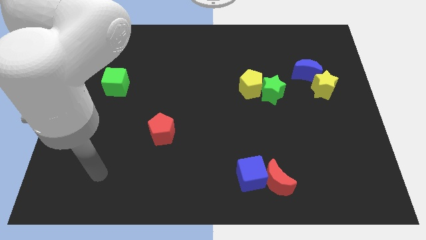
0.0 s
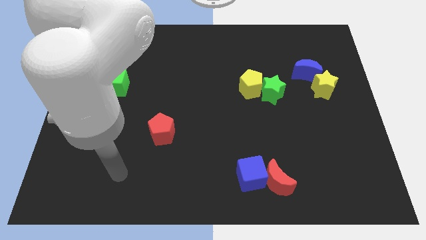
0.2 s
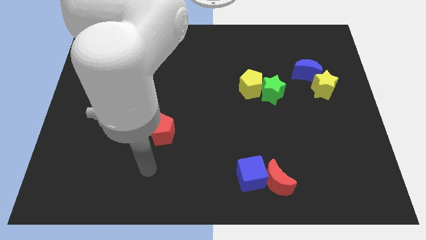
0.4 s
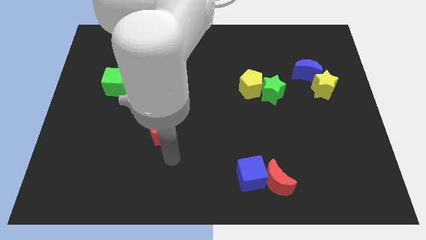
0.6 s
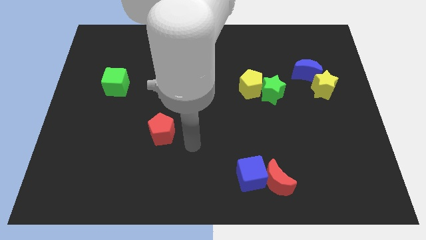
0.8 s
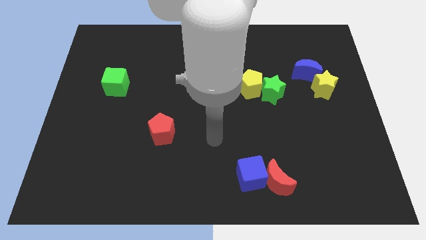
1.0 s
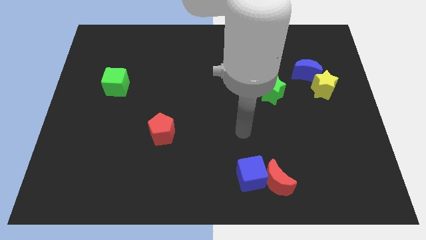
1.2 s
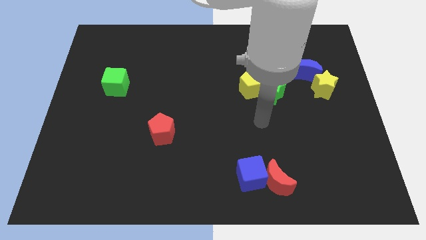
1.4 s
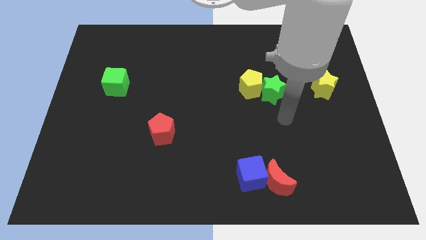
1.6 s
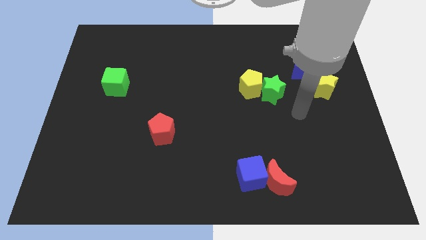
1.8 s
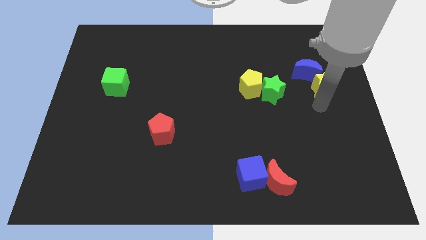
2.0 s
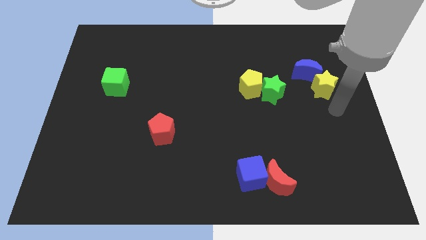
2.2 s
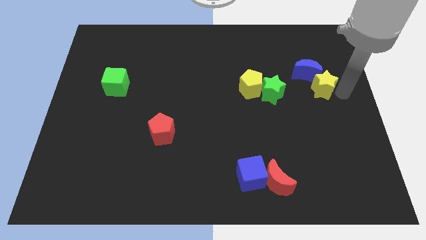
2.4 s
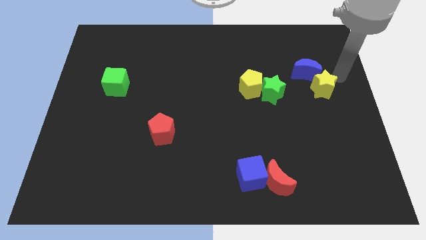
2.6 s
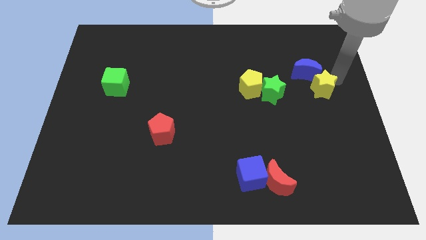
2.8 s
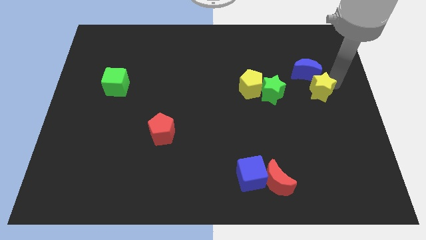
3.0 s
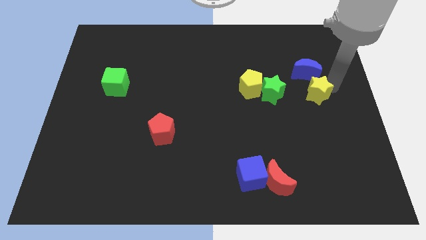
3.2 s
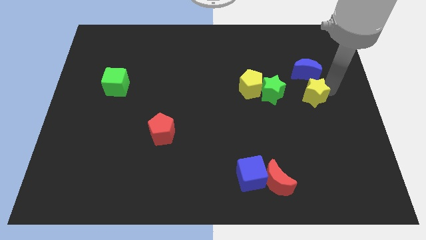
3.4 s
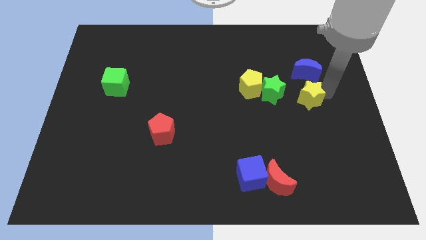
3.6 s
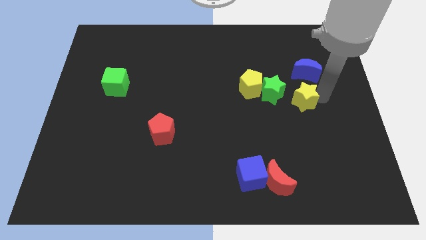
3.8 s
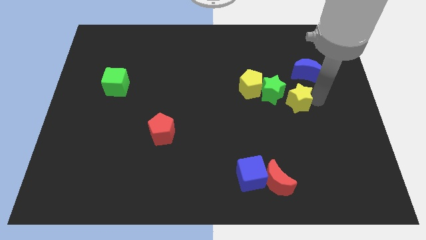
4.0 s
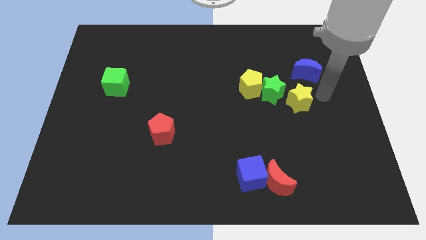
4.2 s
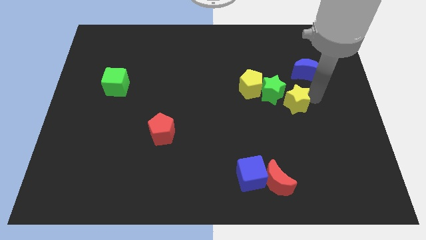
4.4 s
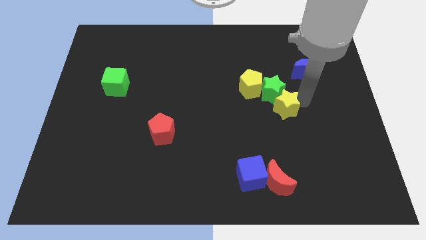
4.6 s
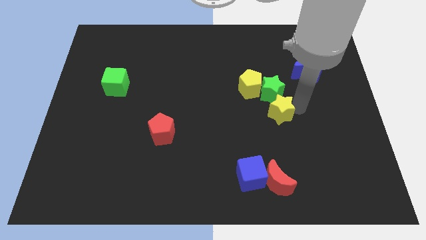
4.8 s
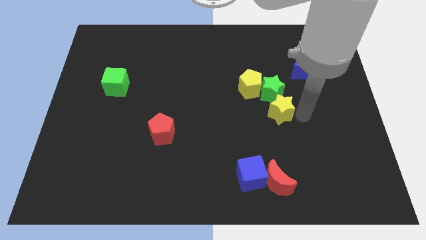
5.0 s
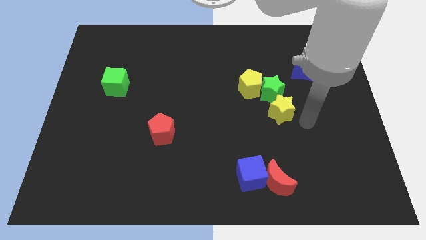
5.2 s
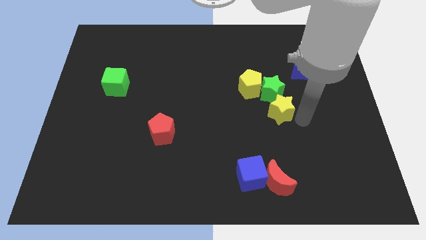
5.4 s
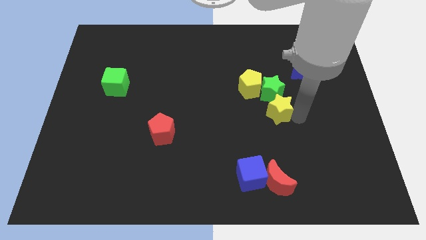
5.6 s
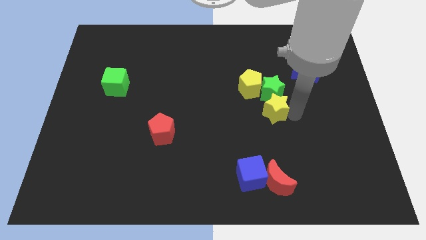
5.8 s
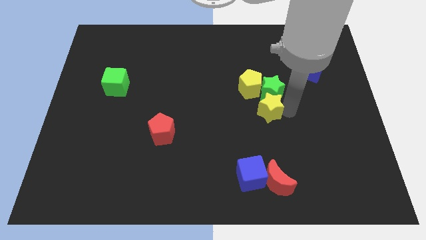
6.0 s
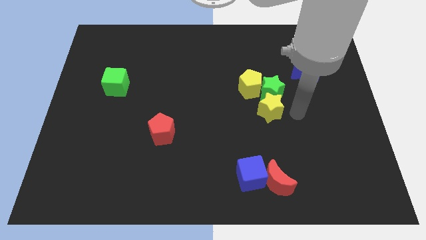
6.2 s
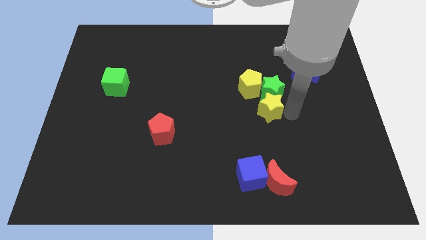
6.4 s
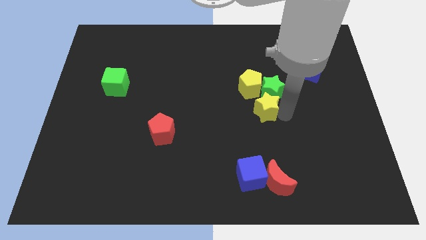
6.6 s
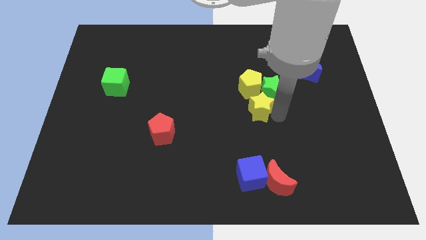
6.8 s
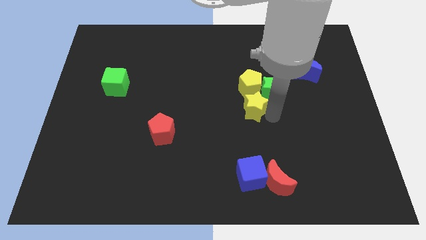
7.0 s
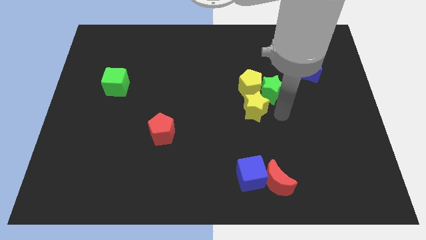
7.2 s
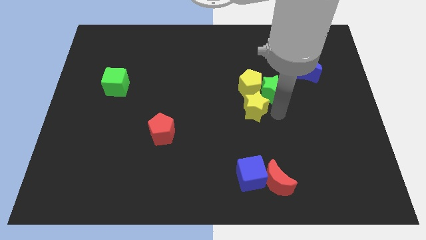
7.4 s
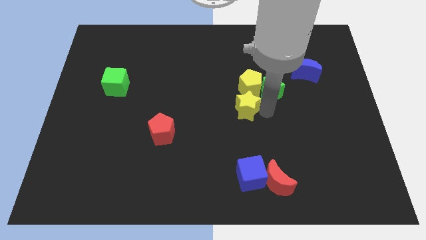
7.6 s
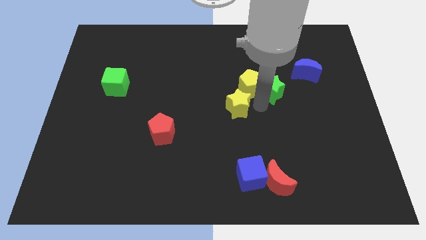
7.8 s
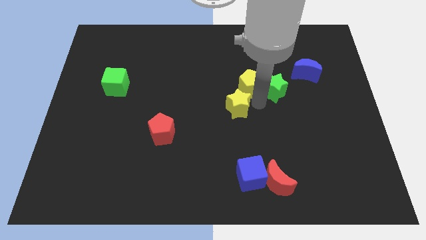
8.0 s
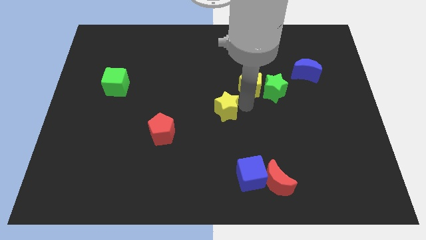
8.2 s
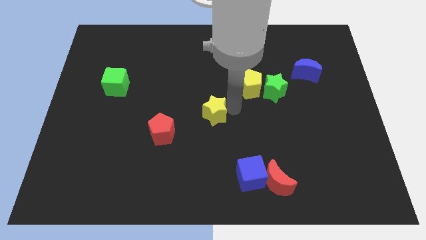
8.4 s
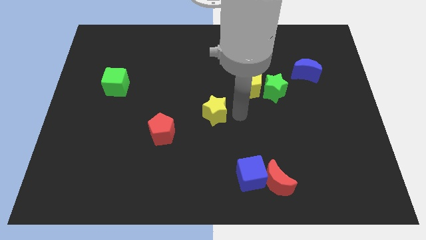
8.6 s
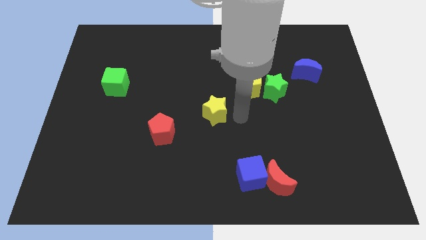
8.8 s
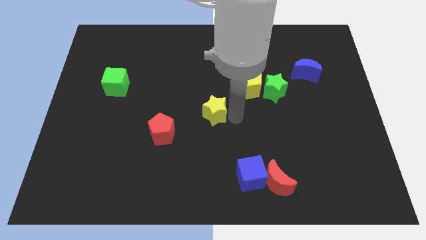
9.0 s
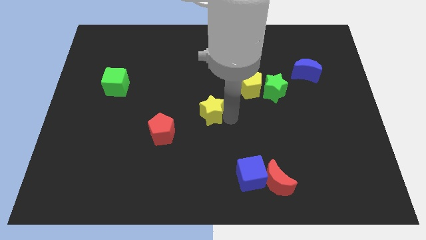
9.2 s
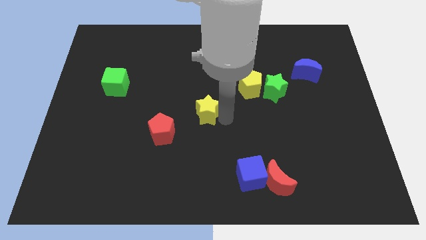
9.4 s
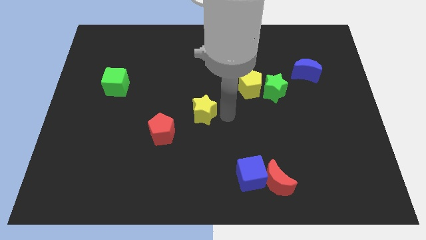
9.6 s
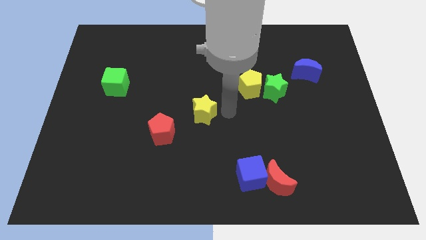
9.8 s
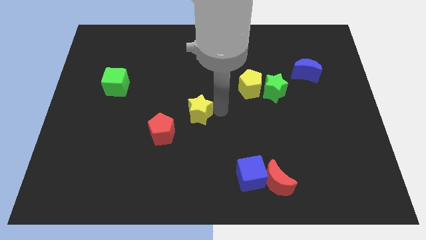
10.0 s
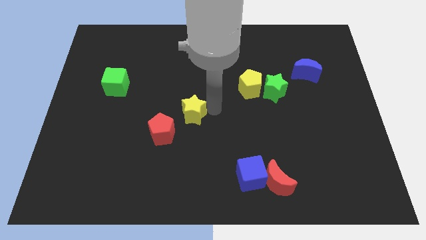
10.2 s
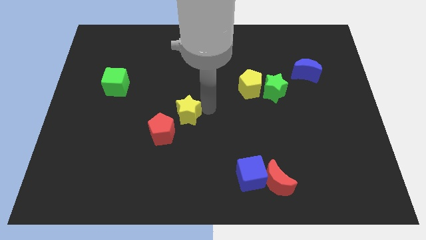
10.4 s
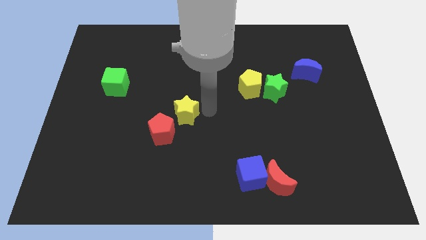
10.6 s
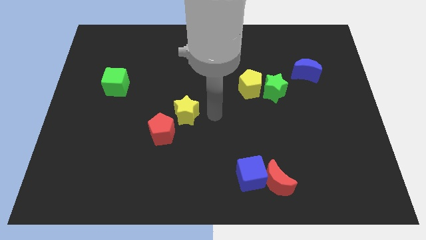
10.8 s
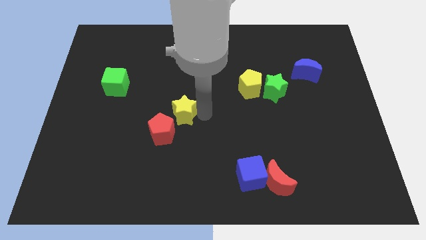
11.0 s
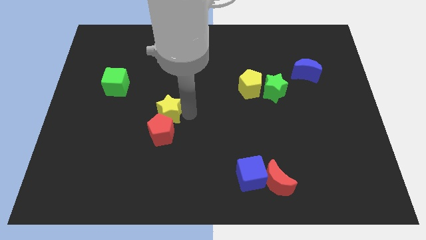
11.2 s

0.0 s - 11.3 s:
put the yellow star to the top left side of the red pentagon

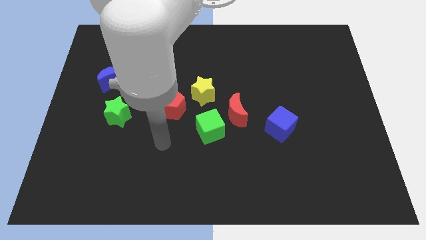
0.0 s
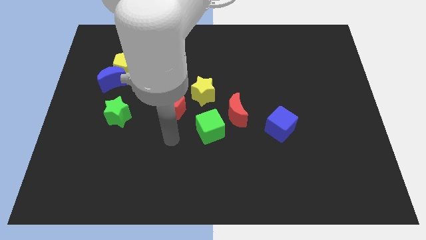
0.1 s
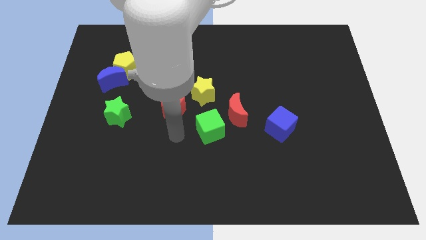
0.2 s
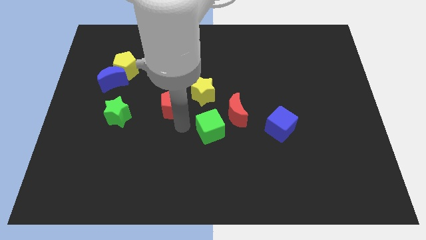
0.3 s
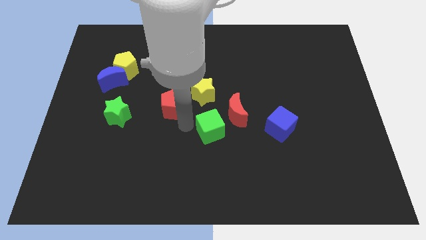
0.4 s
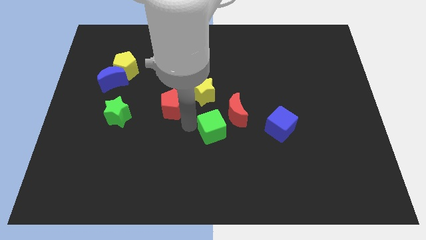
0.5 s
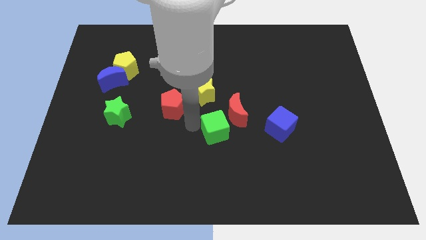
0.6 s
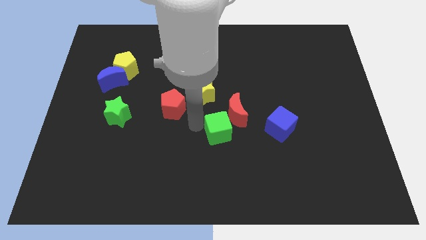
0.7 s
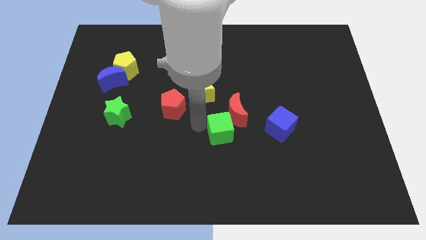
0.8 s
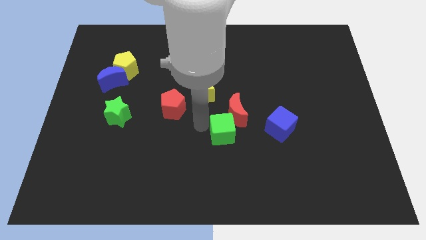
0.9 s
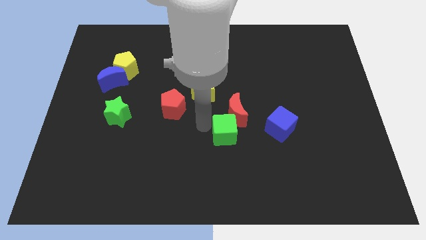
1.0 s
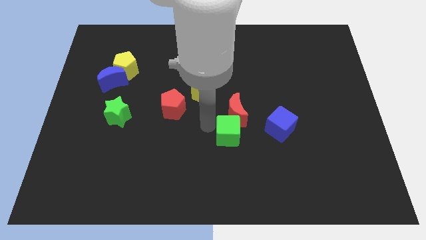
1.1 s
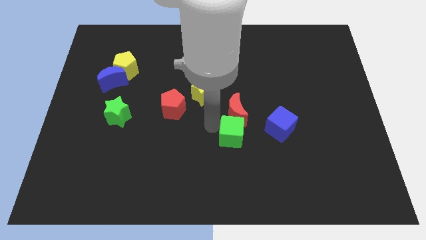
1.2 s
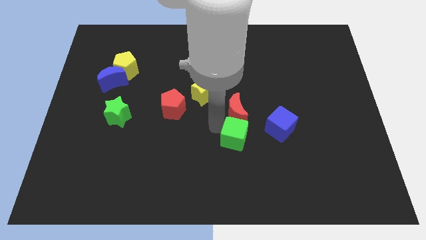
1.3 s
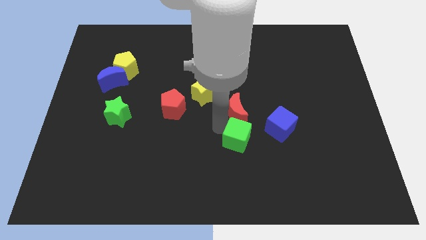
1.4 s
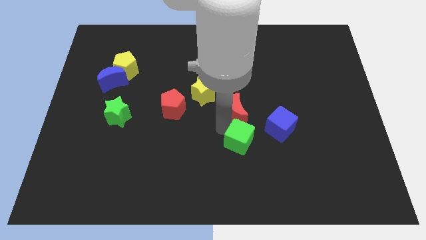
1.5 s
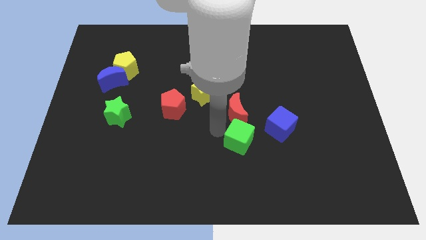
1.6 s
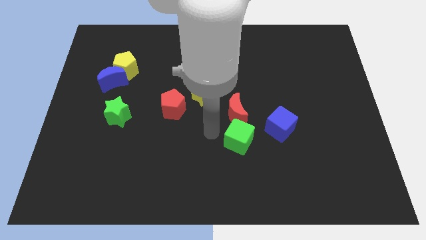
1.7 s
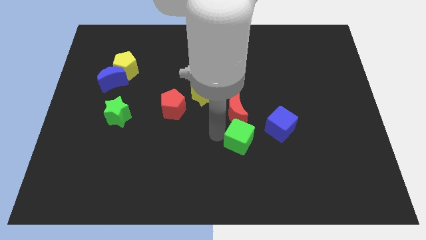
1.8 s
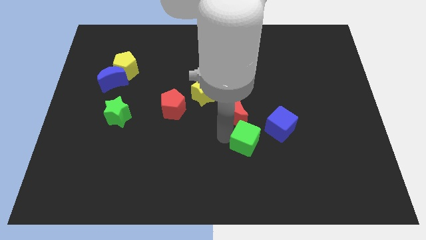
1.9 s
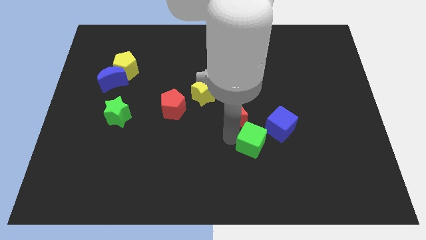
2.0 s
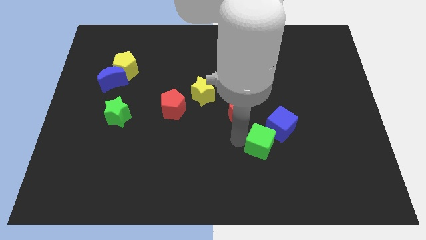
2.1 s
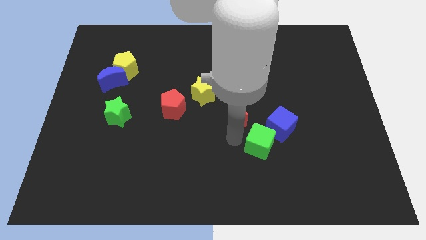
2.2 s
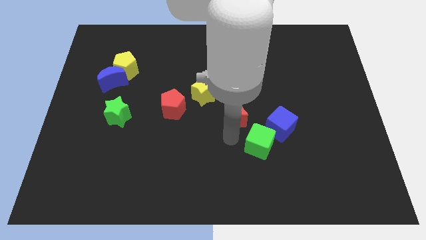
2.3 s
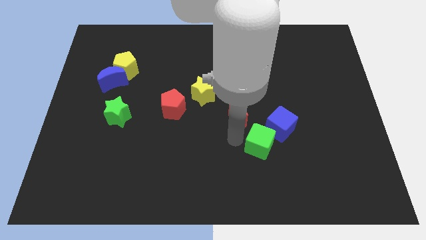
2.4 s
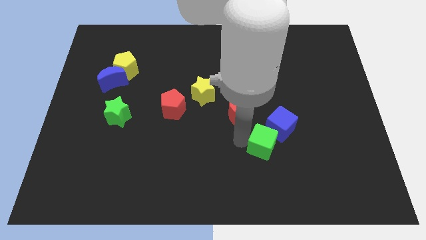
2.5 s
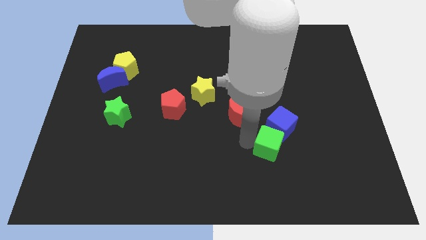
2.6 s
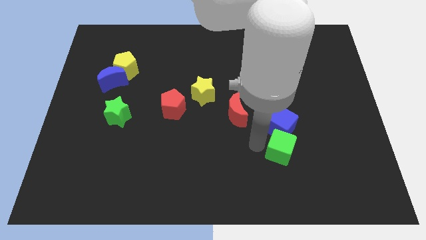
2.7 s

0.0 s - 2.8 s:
put the green cube to the bottom right side of the blue cube
